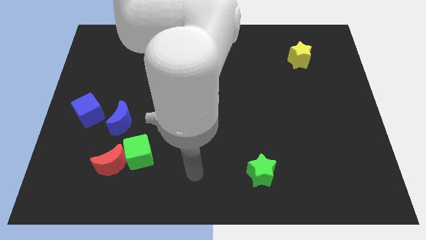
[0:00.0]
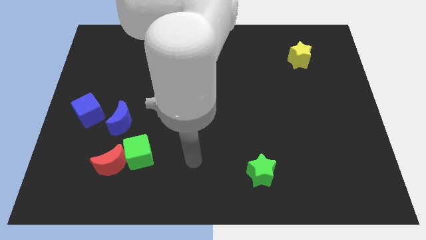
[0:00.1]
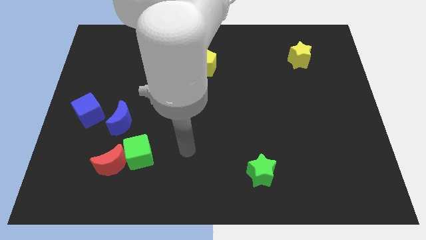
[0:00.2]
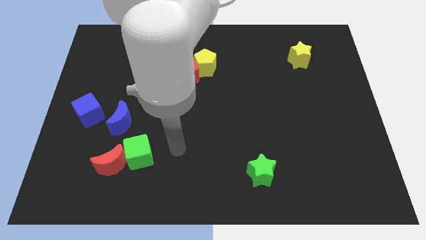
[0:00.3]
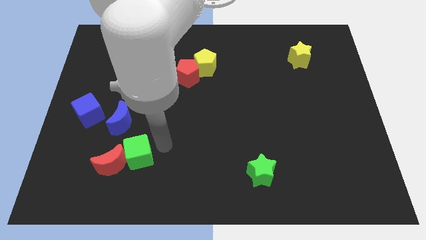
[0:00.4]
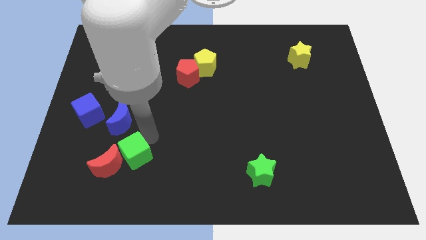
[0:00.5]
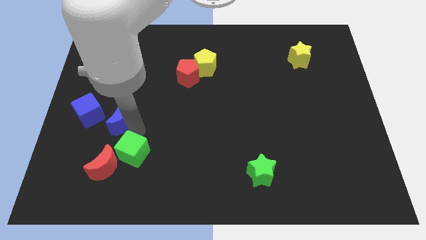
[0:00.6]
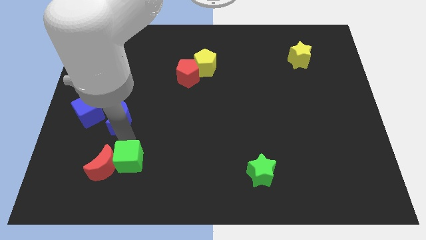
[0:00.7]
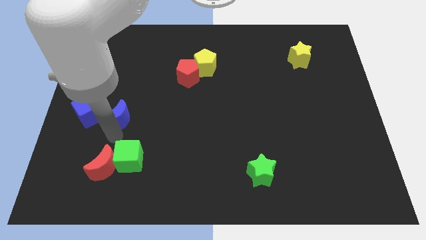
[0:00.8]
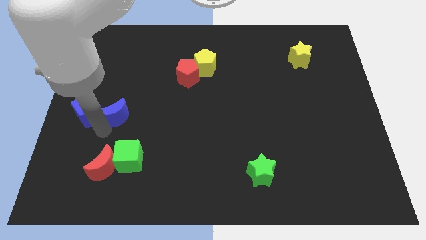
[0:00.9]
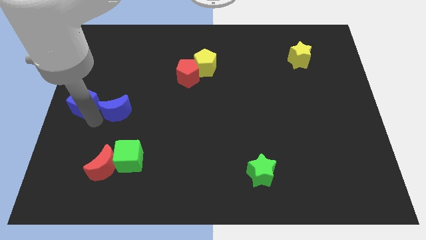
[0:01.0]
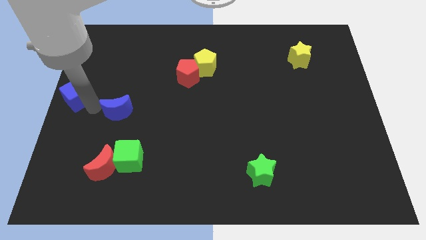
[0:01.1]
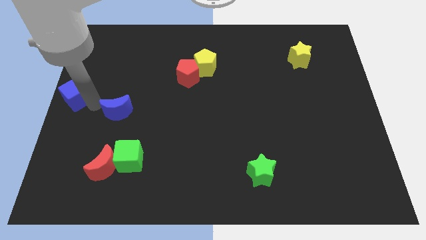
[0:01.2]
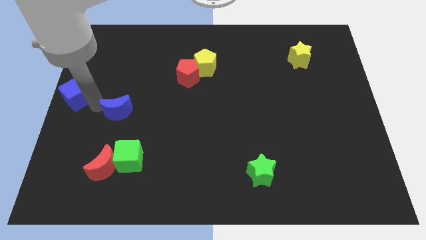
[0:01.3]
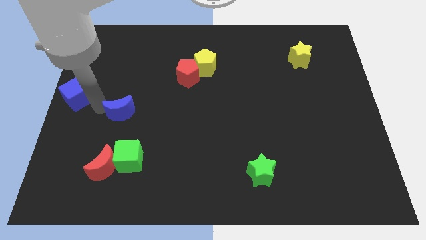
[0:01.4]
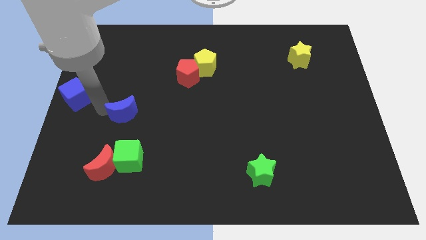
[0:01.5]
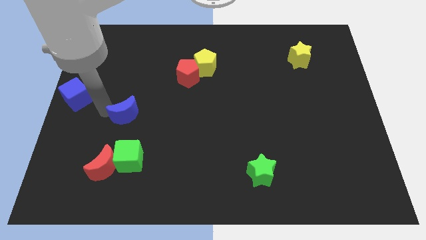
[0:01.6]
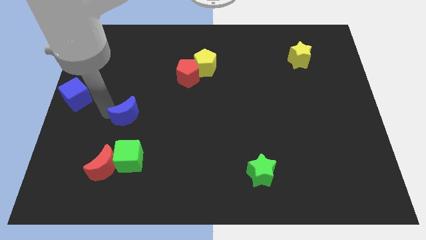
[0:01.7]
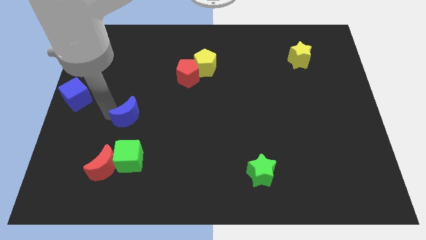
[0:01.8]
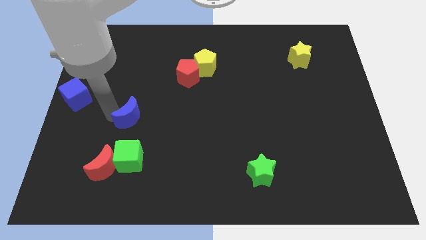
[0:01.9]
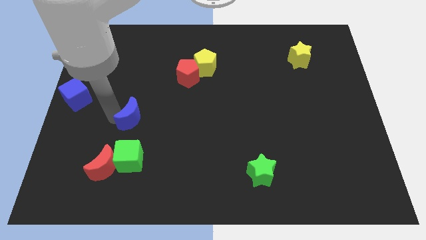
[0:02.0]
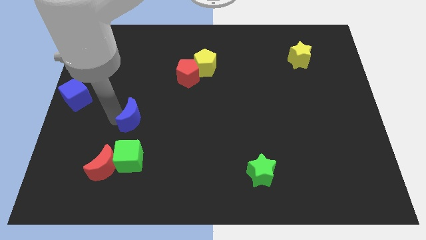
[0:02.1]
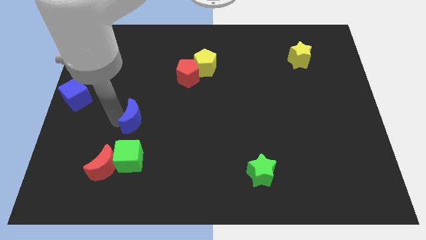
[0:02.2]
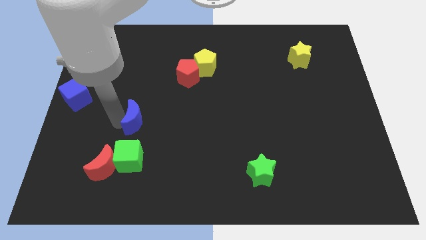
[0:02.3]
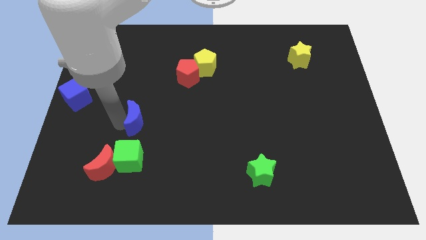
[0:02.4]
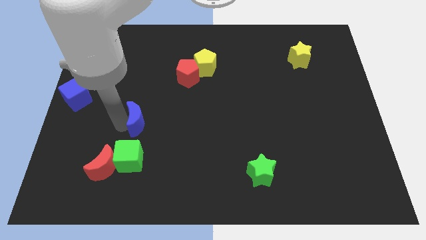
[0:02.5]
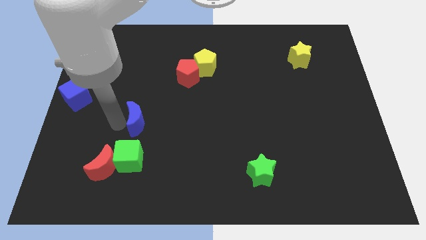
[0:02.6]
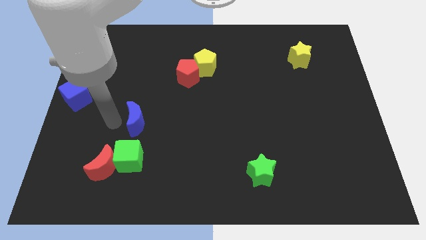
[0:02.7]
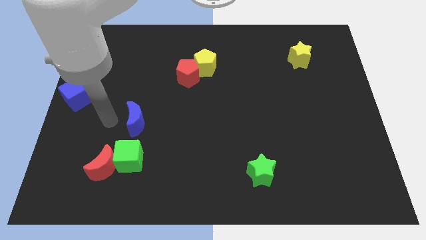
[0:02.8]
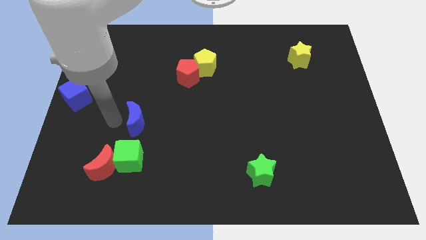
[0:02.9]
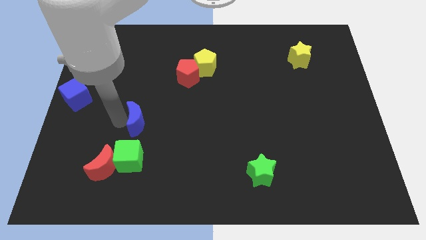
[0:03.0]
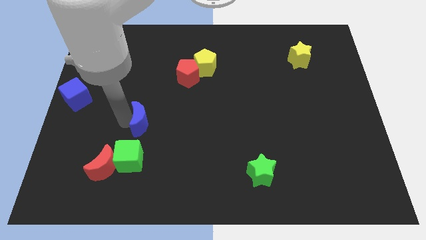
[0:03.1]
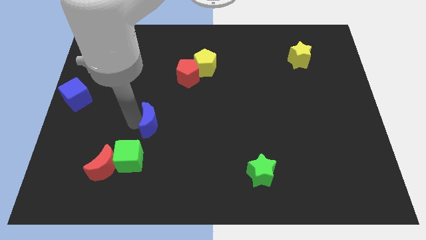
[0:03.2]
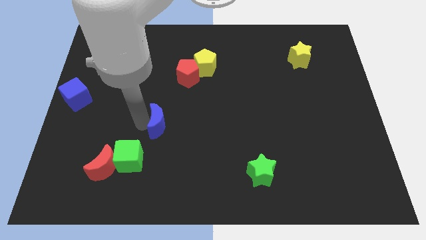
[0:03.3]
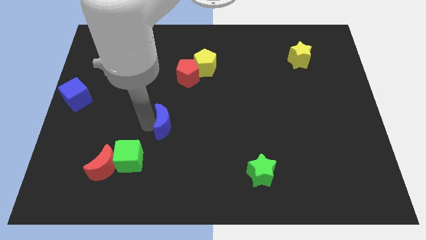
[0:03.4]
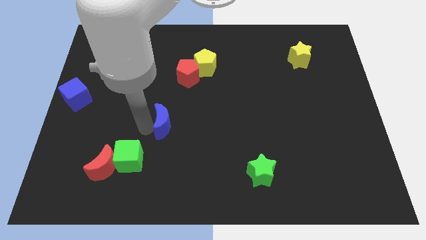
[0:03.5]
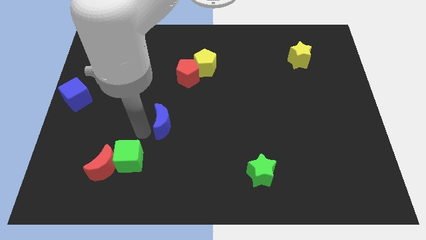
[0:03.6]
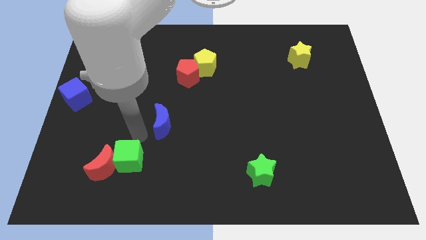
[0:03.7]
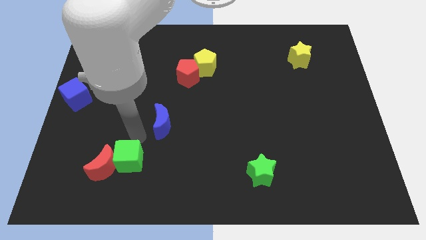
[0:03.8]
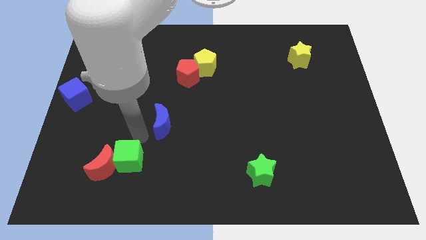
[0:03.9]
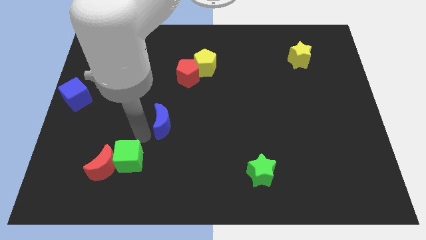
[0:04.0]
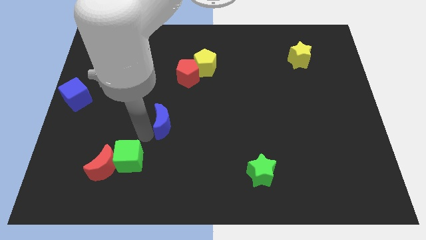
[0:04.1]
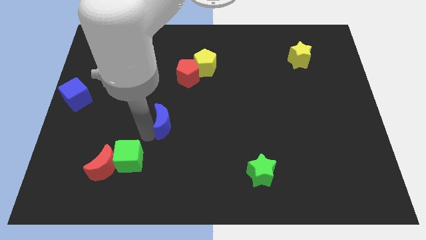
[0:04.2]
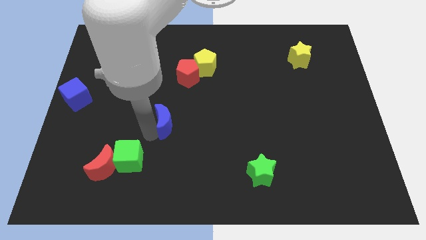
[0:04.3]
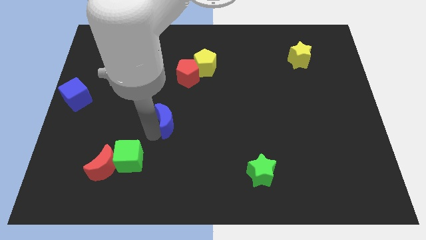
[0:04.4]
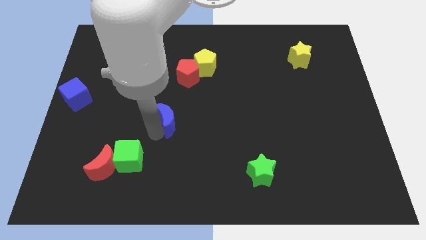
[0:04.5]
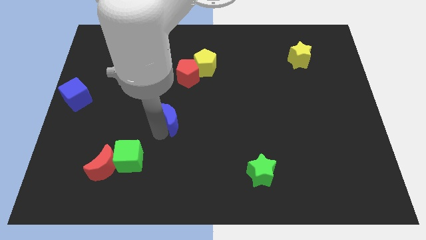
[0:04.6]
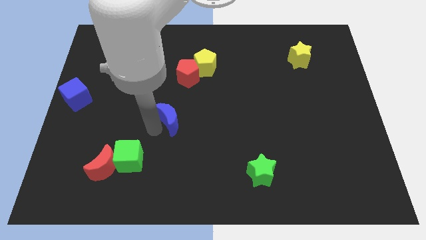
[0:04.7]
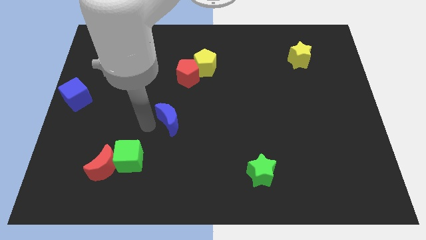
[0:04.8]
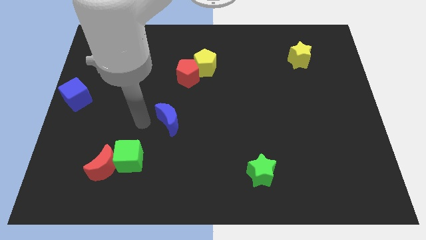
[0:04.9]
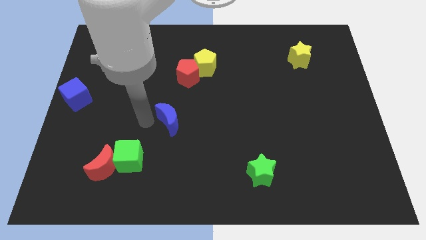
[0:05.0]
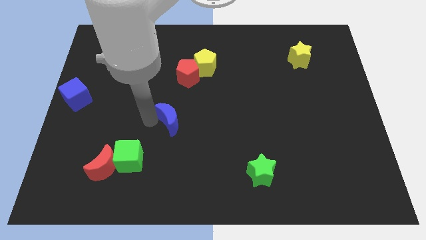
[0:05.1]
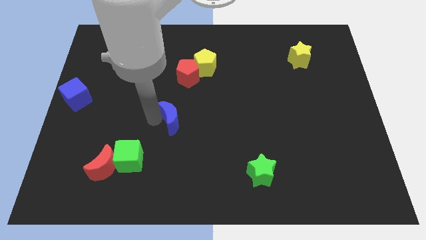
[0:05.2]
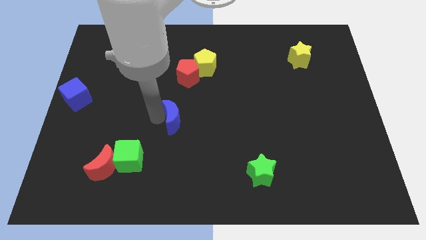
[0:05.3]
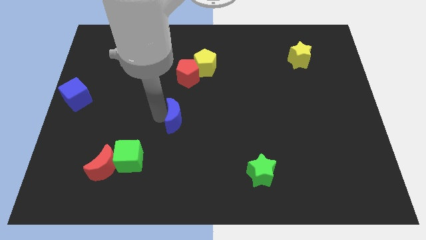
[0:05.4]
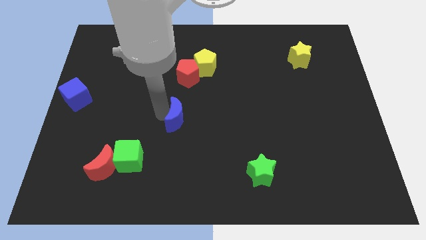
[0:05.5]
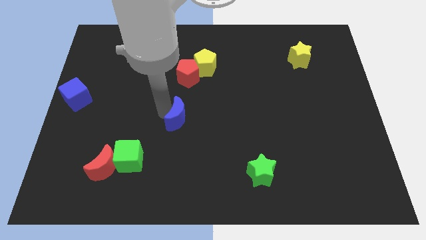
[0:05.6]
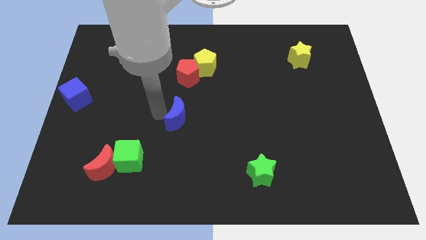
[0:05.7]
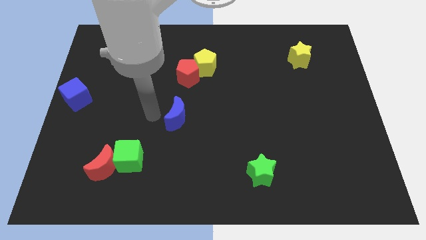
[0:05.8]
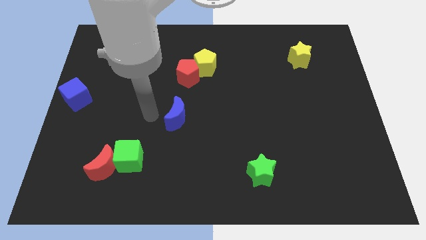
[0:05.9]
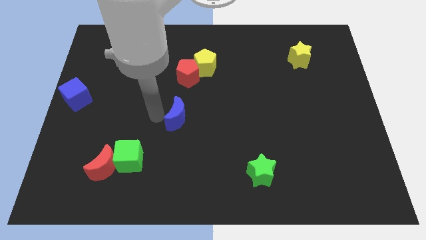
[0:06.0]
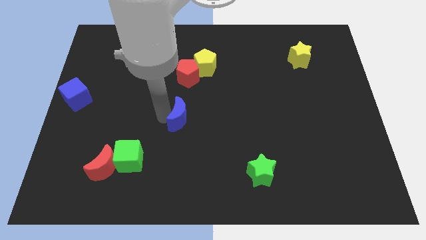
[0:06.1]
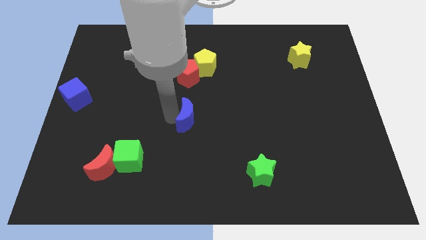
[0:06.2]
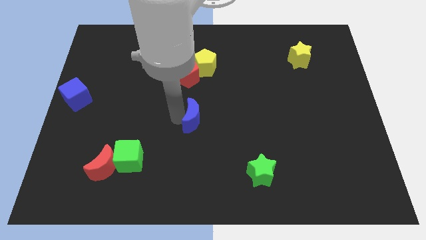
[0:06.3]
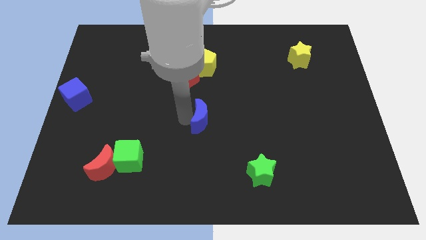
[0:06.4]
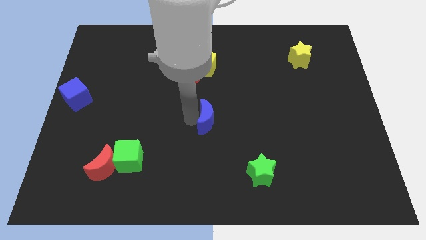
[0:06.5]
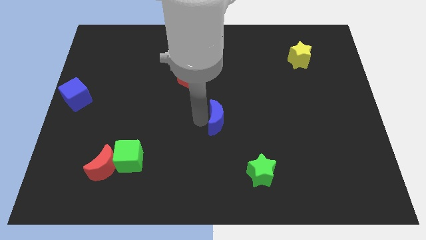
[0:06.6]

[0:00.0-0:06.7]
push the blue moon right

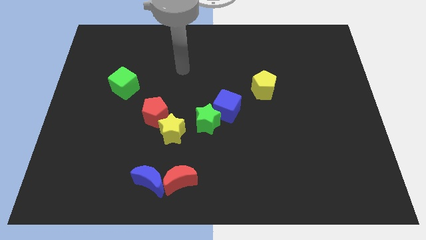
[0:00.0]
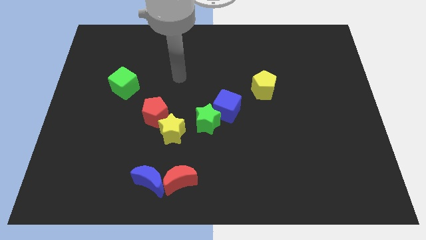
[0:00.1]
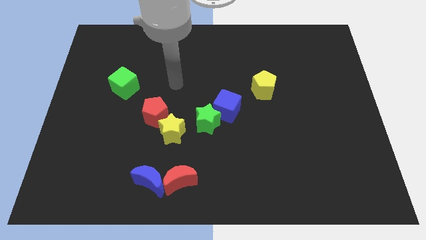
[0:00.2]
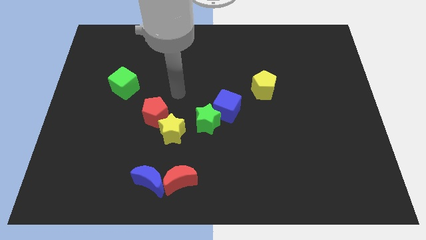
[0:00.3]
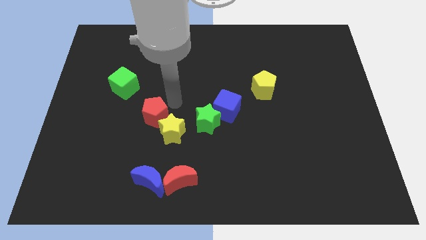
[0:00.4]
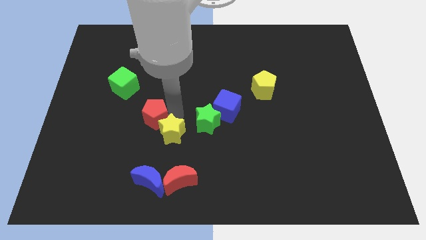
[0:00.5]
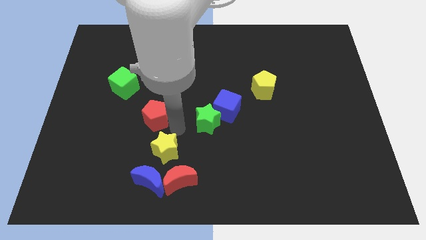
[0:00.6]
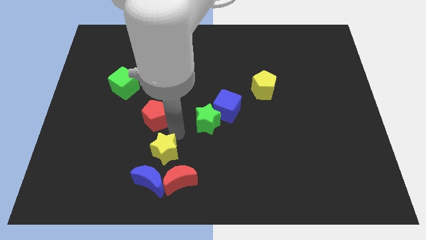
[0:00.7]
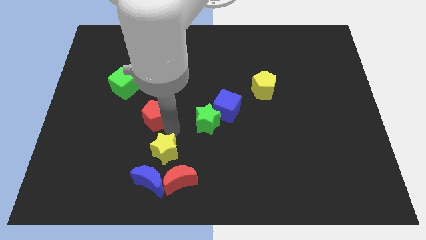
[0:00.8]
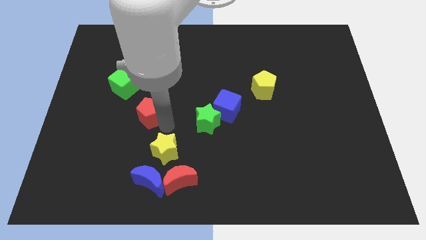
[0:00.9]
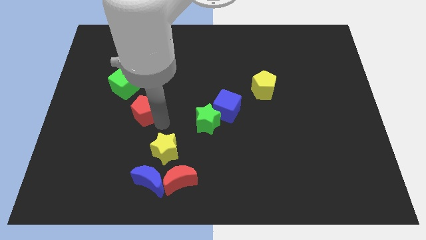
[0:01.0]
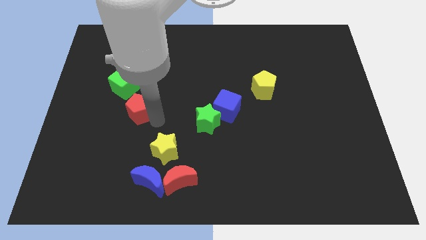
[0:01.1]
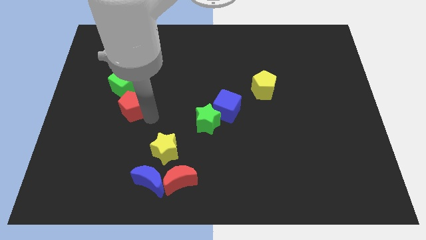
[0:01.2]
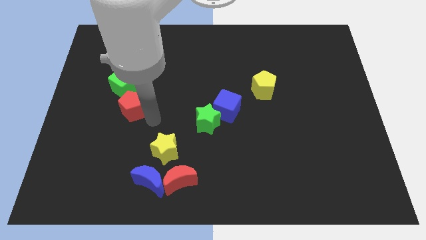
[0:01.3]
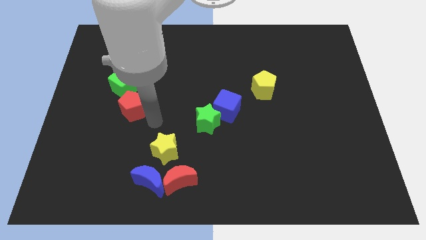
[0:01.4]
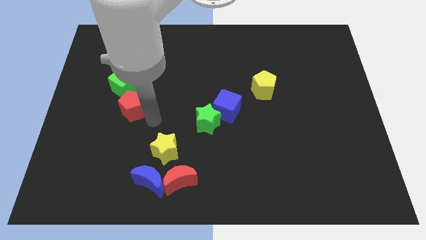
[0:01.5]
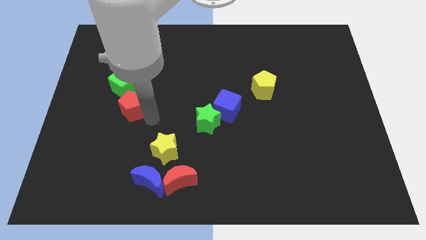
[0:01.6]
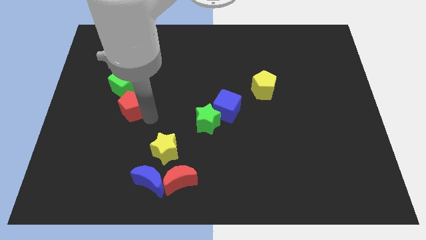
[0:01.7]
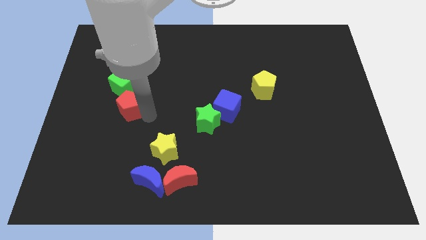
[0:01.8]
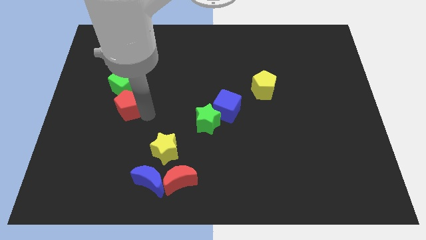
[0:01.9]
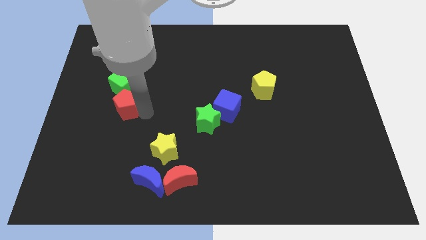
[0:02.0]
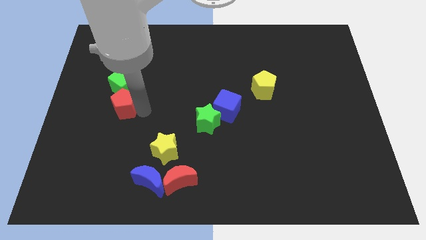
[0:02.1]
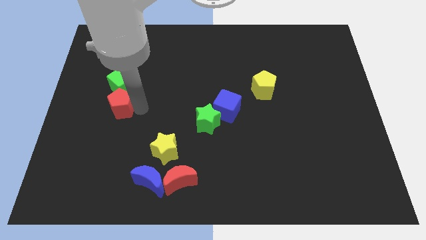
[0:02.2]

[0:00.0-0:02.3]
move the red pentagon diagonally upwards and to the left slightly
